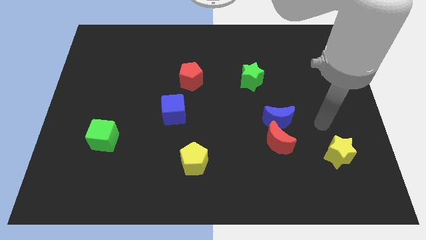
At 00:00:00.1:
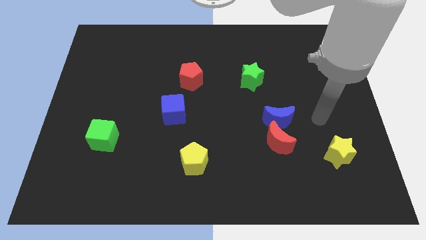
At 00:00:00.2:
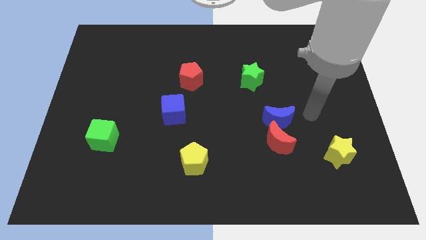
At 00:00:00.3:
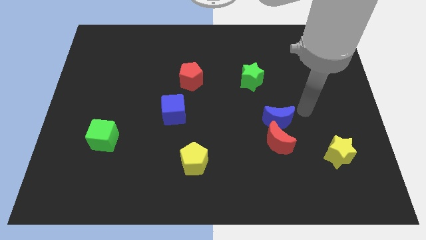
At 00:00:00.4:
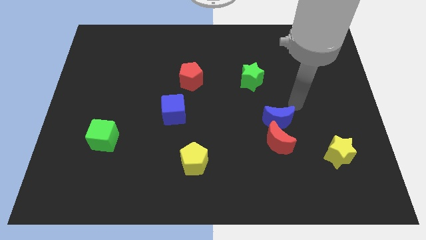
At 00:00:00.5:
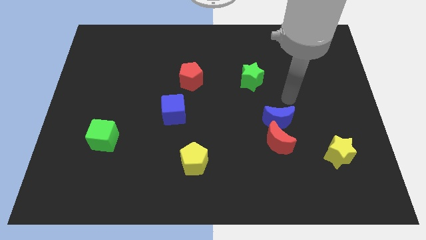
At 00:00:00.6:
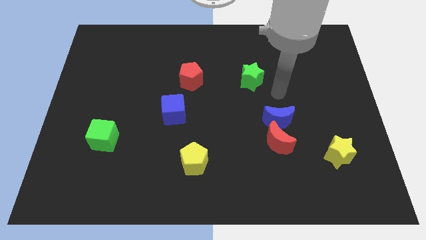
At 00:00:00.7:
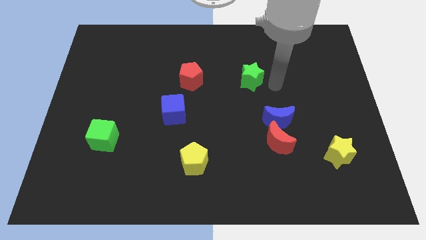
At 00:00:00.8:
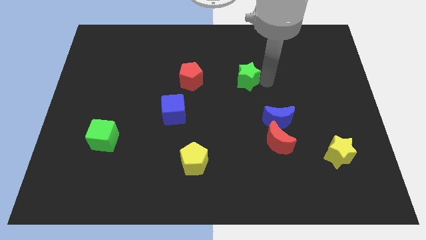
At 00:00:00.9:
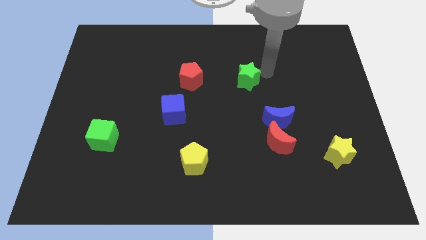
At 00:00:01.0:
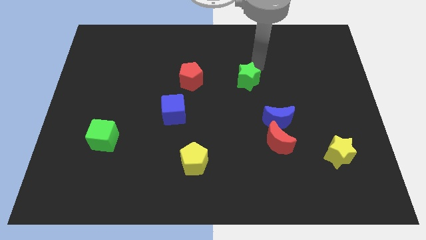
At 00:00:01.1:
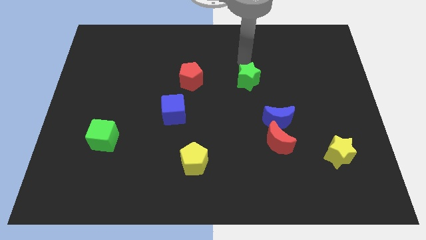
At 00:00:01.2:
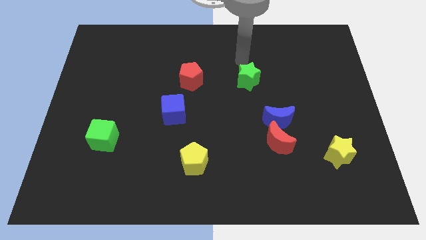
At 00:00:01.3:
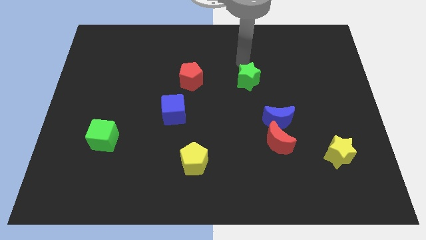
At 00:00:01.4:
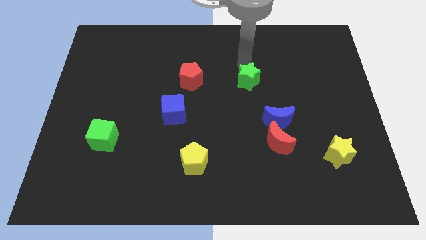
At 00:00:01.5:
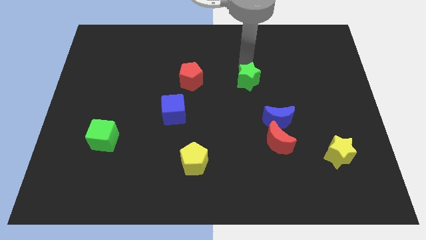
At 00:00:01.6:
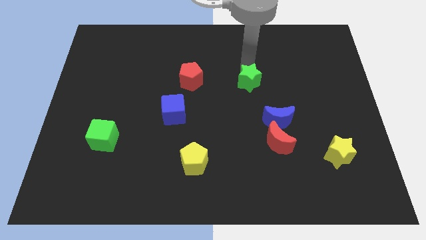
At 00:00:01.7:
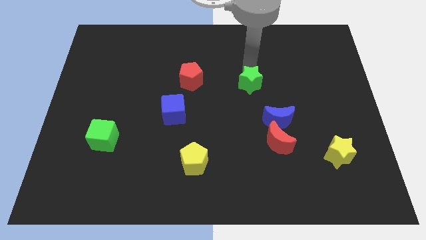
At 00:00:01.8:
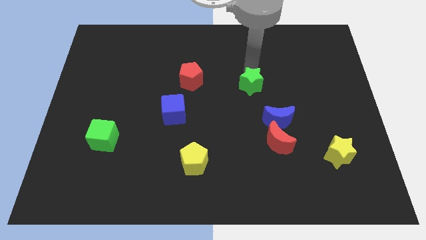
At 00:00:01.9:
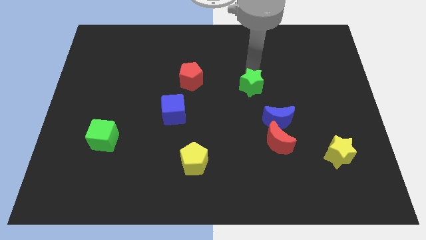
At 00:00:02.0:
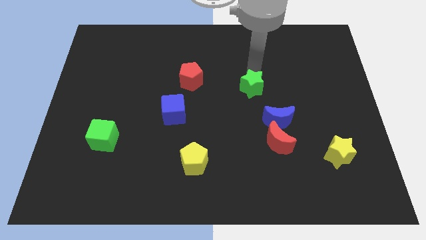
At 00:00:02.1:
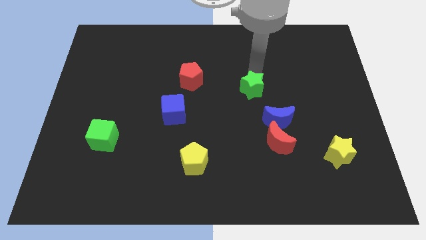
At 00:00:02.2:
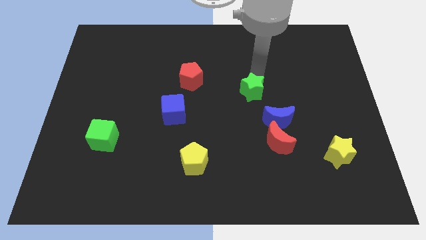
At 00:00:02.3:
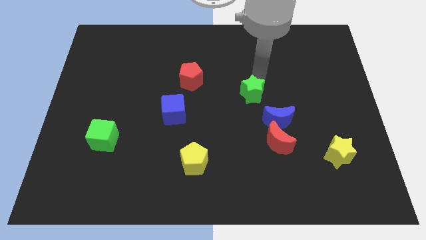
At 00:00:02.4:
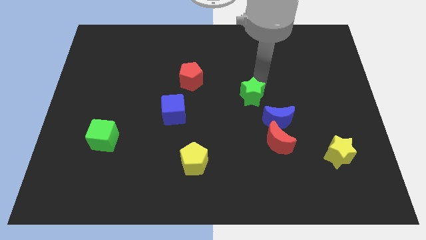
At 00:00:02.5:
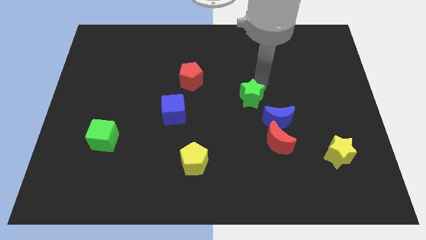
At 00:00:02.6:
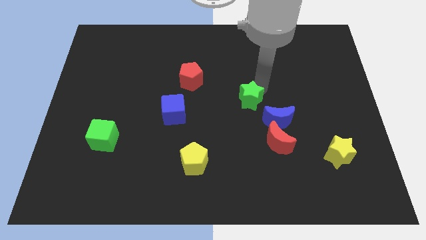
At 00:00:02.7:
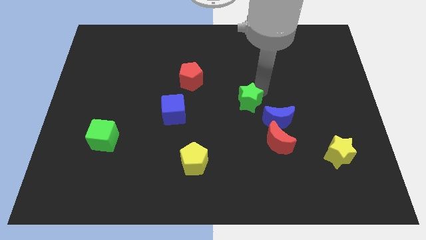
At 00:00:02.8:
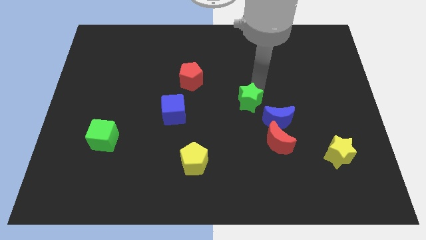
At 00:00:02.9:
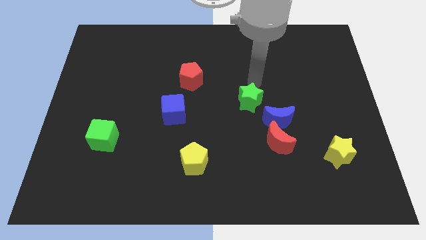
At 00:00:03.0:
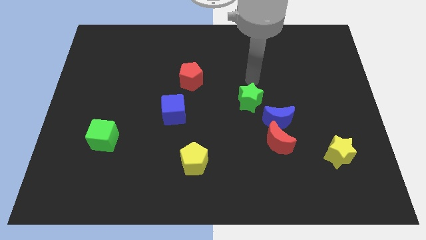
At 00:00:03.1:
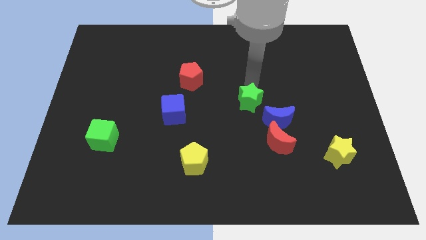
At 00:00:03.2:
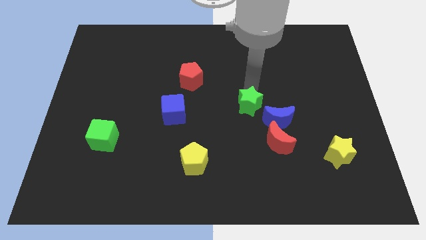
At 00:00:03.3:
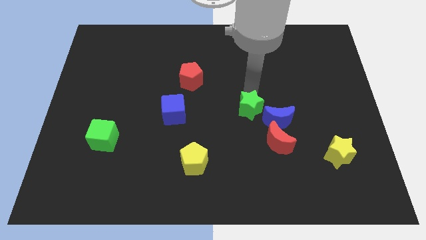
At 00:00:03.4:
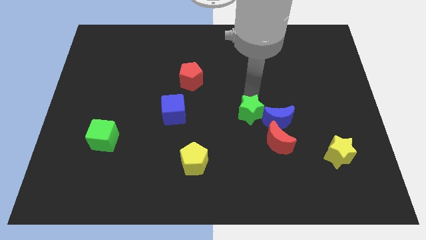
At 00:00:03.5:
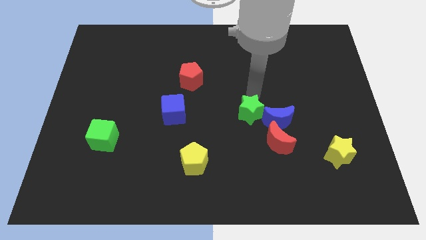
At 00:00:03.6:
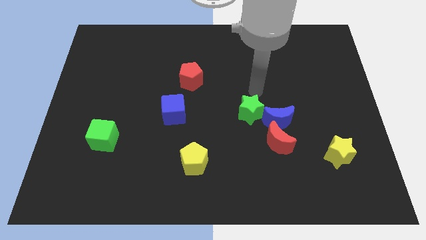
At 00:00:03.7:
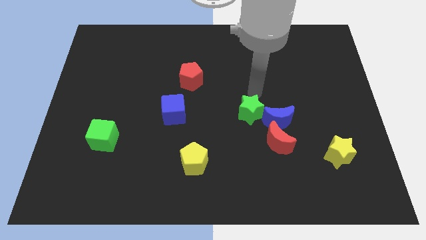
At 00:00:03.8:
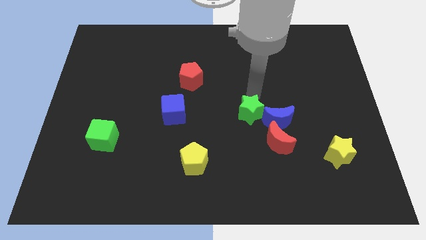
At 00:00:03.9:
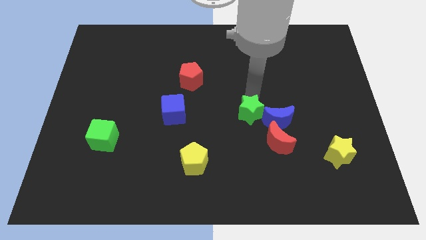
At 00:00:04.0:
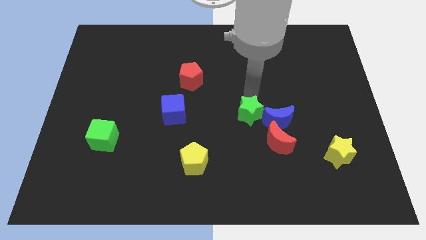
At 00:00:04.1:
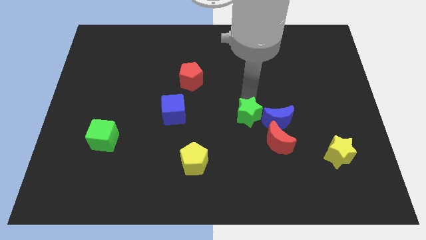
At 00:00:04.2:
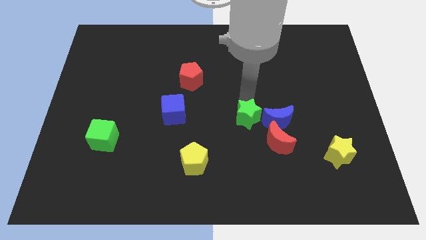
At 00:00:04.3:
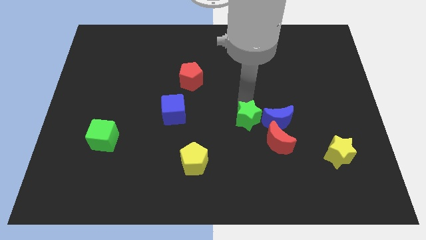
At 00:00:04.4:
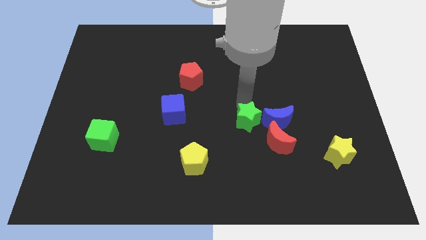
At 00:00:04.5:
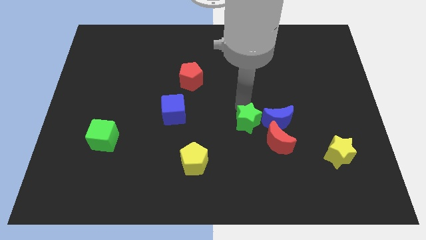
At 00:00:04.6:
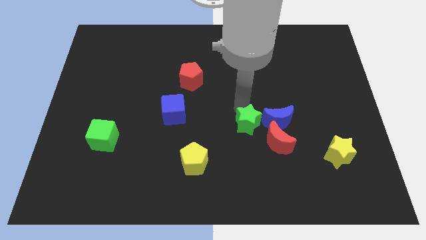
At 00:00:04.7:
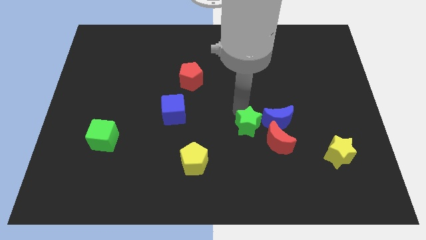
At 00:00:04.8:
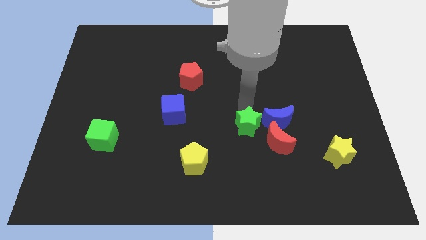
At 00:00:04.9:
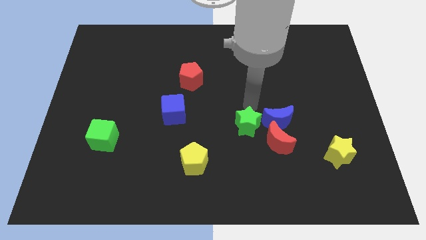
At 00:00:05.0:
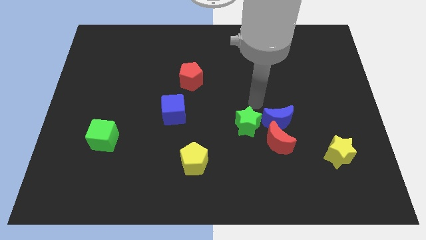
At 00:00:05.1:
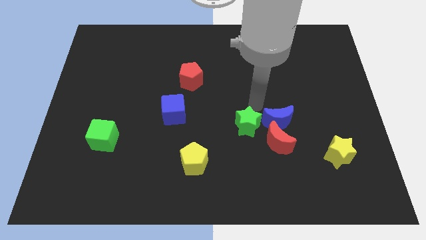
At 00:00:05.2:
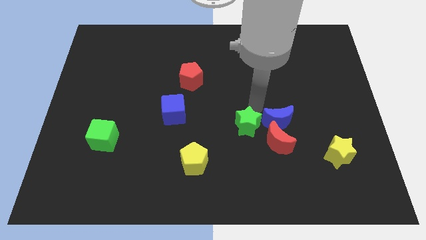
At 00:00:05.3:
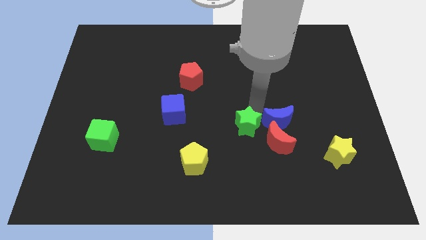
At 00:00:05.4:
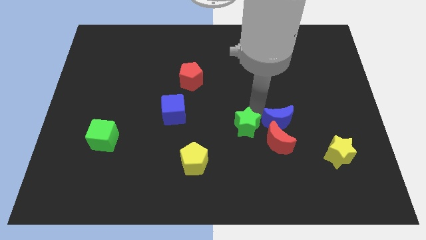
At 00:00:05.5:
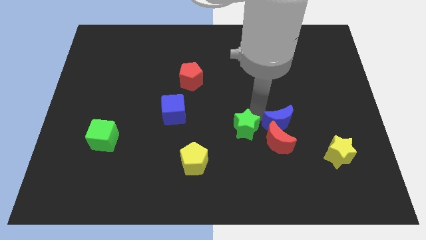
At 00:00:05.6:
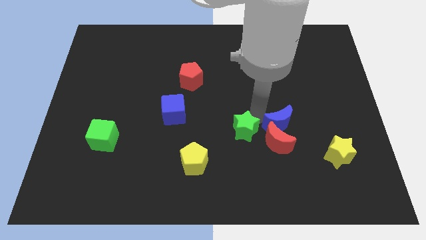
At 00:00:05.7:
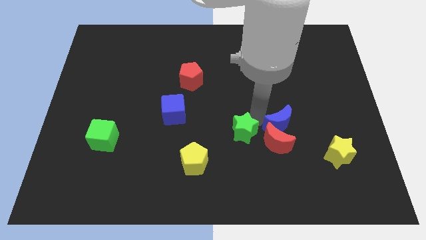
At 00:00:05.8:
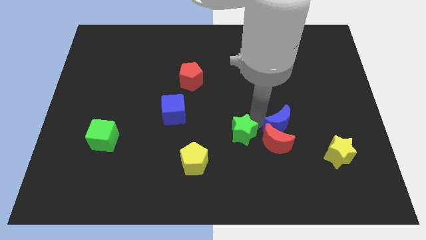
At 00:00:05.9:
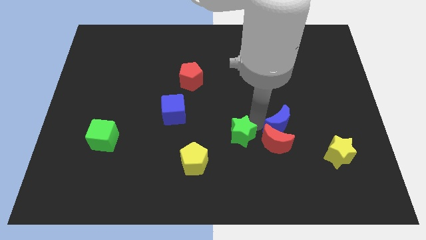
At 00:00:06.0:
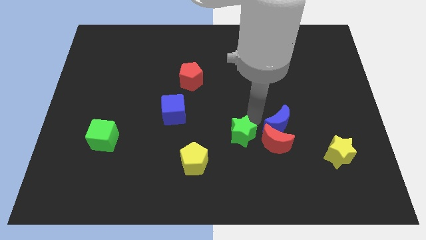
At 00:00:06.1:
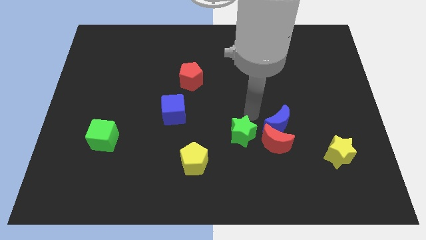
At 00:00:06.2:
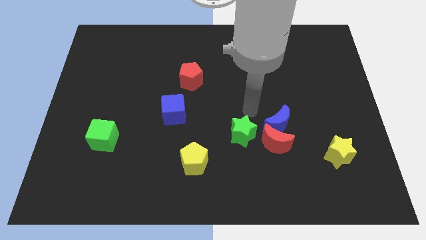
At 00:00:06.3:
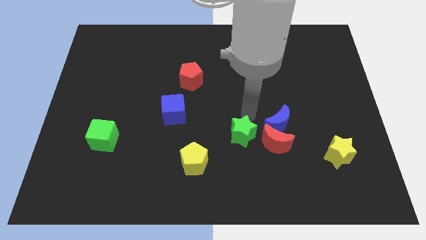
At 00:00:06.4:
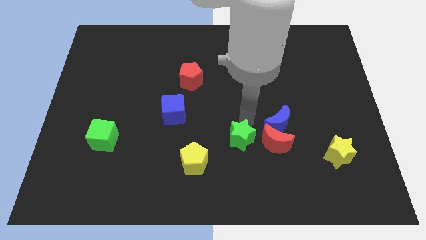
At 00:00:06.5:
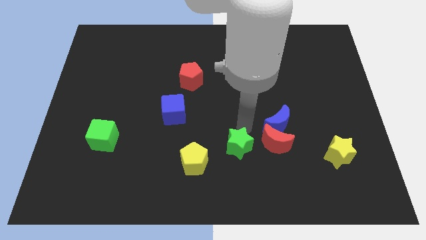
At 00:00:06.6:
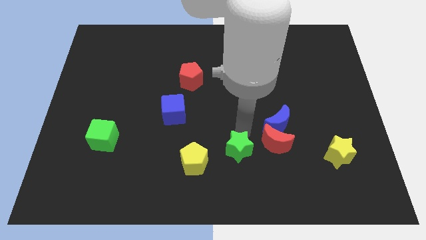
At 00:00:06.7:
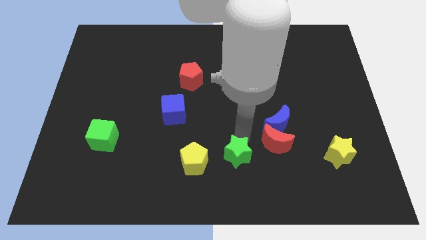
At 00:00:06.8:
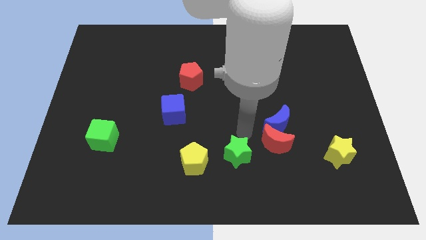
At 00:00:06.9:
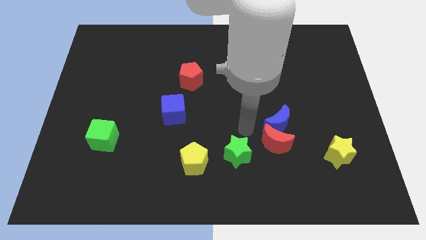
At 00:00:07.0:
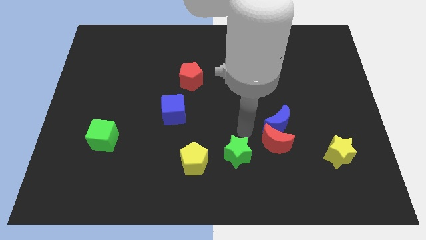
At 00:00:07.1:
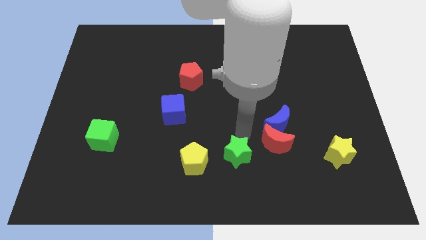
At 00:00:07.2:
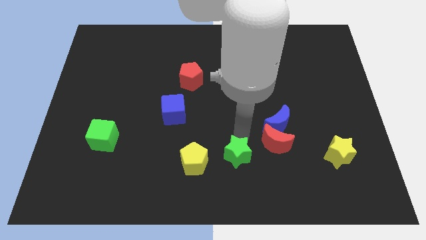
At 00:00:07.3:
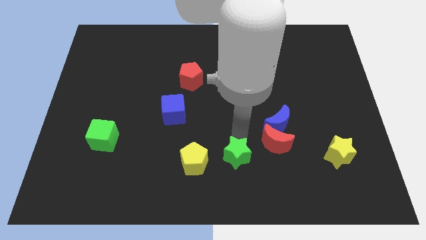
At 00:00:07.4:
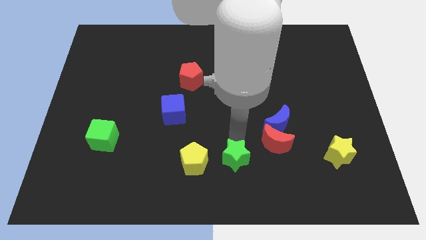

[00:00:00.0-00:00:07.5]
push the green star to the bottom side
